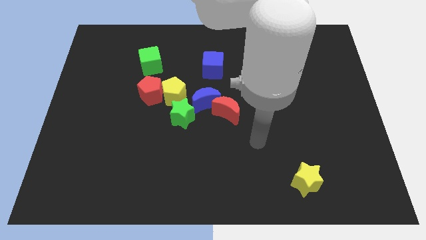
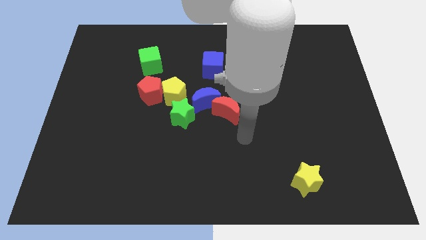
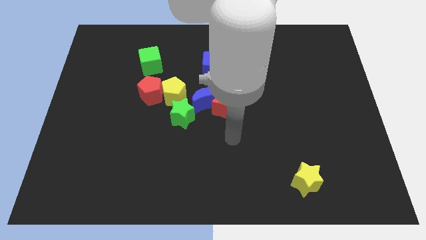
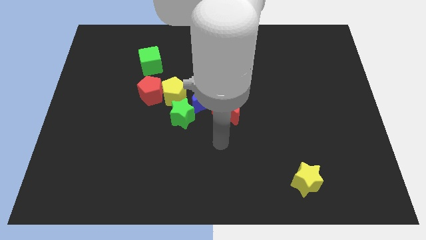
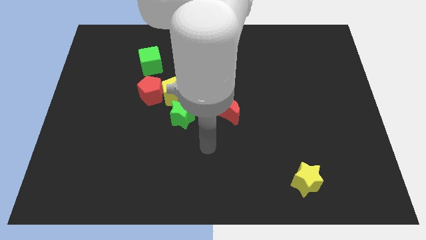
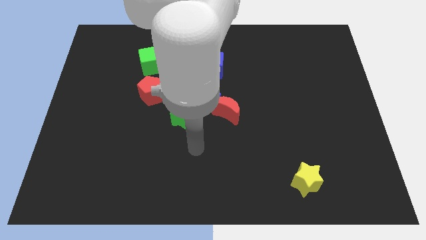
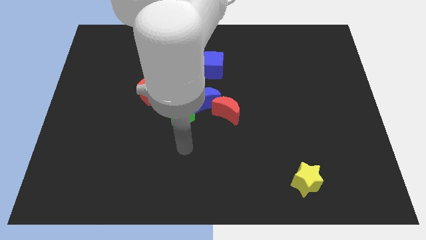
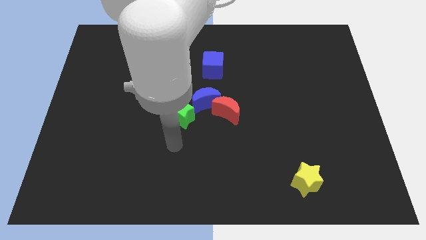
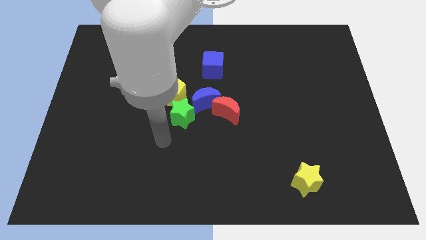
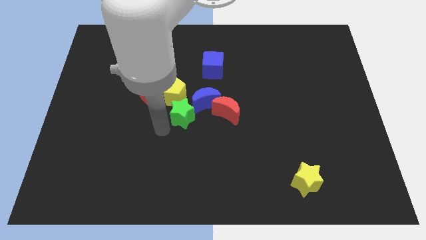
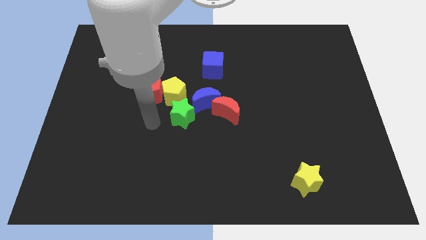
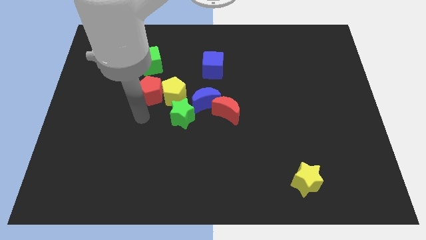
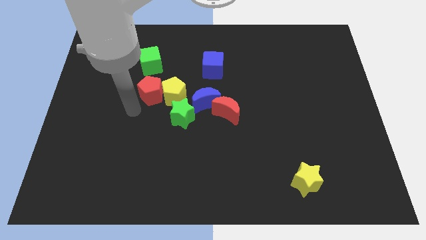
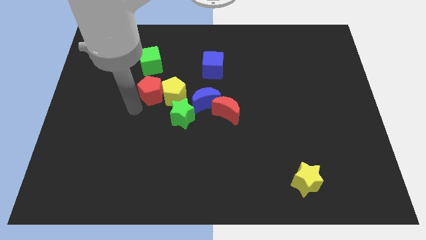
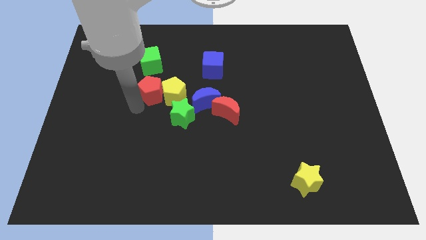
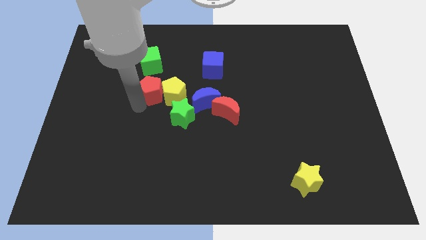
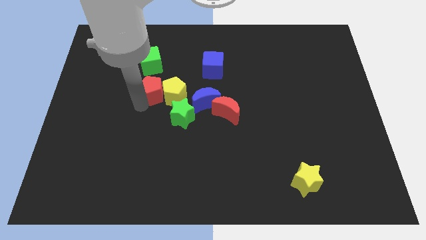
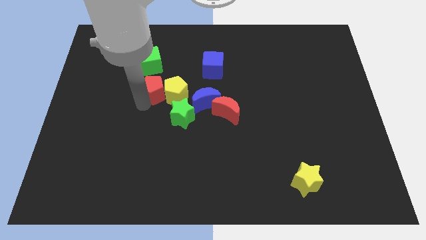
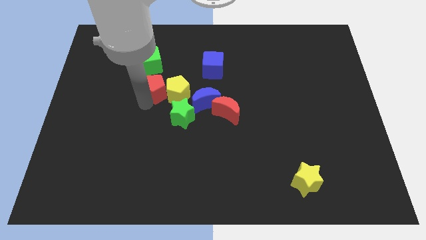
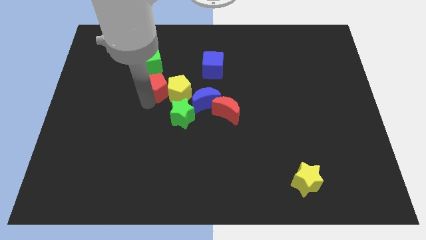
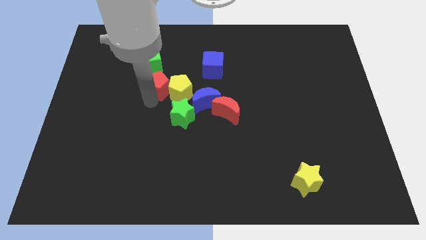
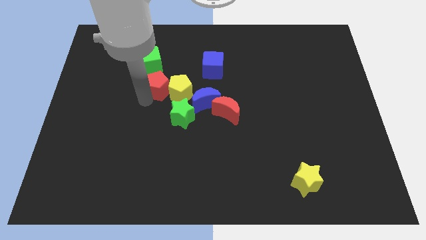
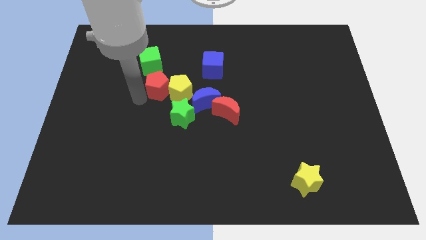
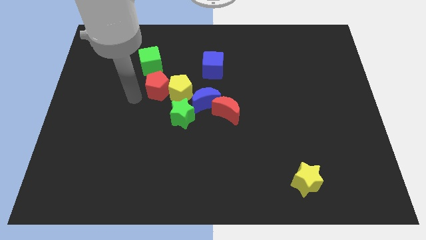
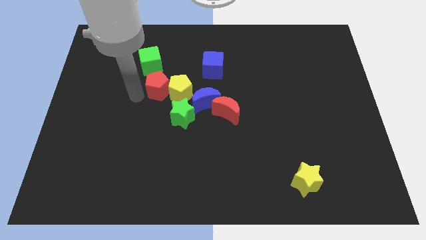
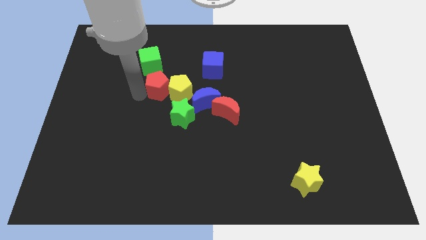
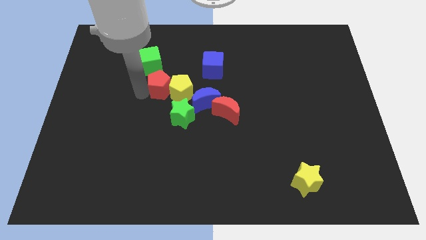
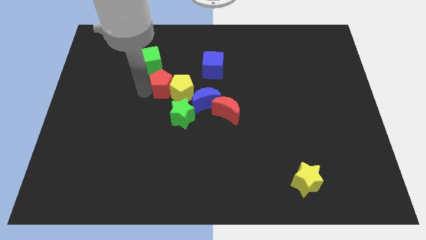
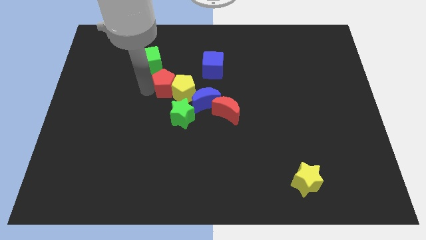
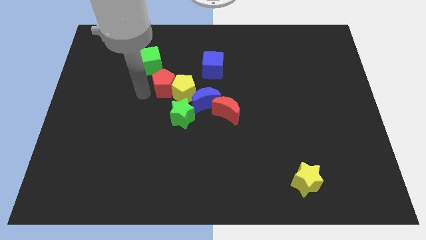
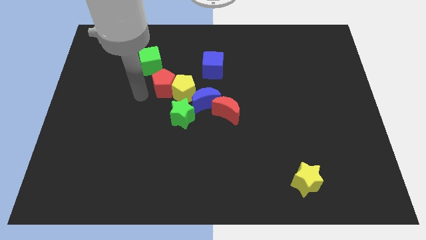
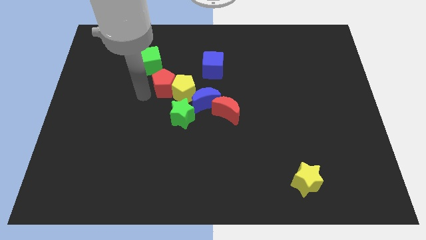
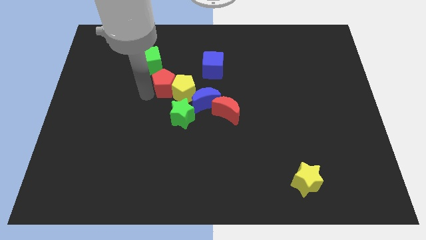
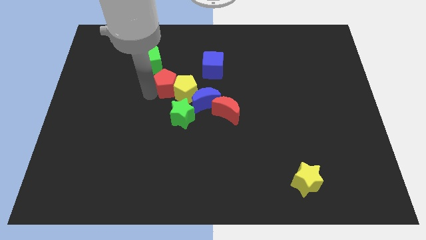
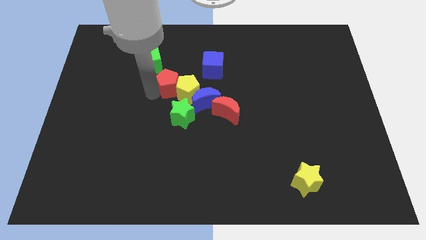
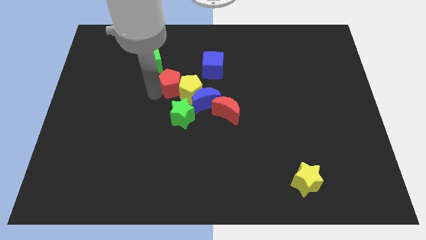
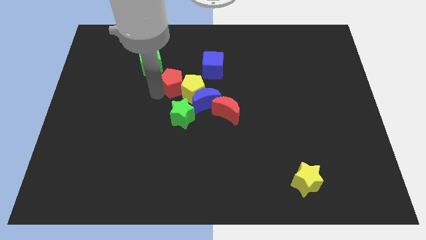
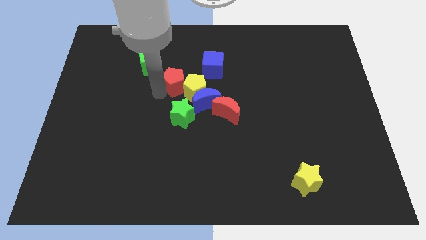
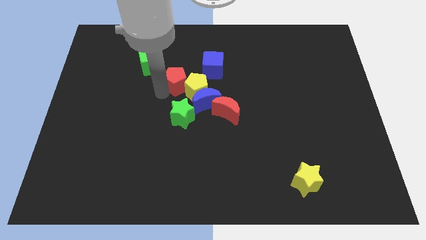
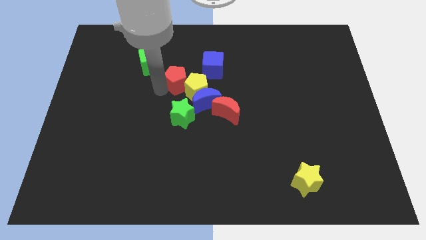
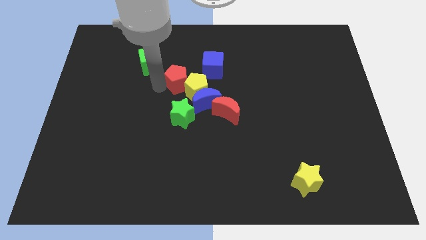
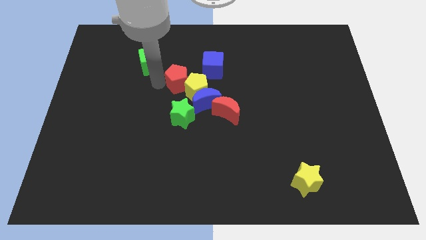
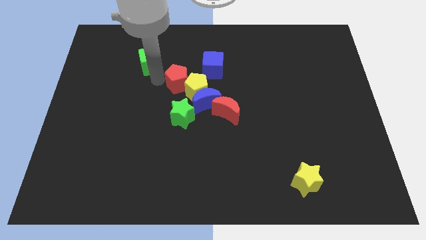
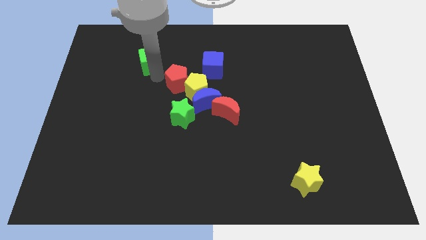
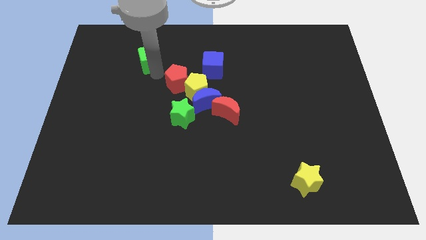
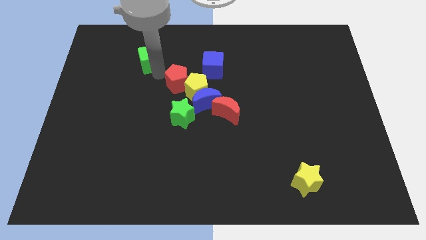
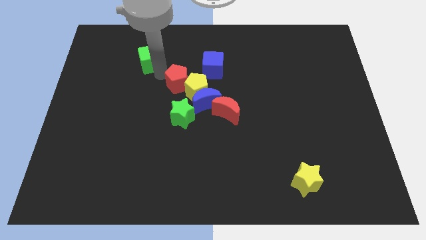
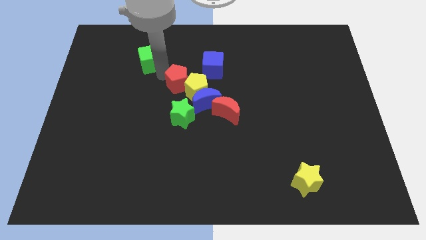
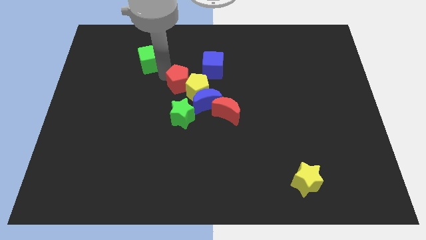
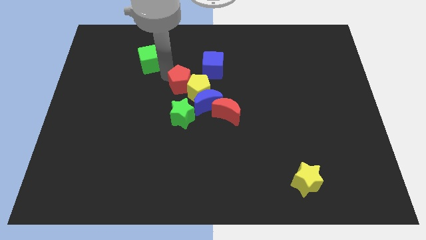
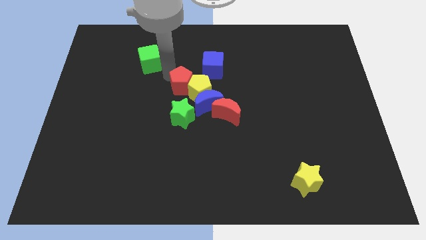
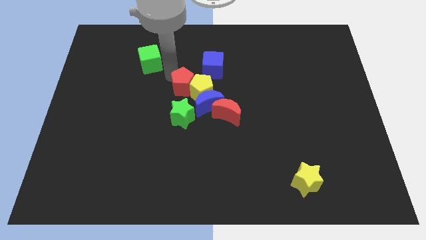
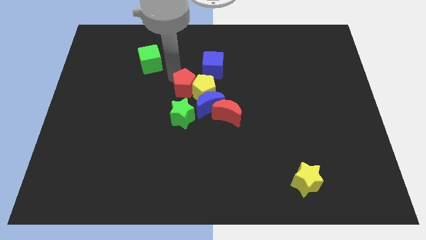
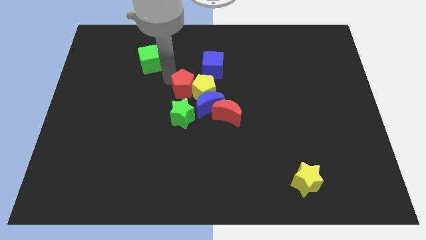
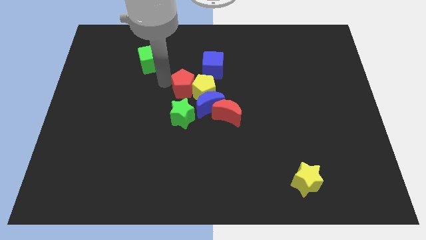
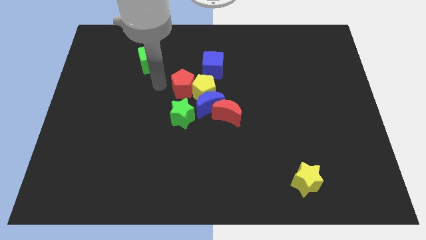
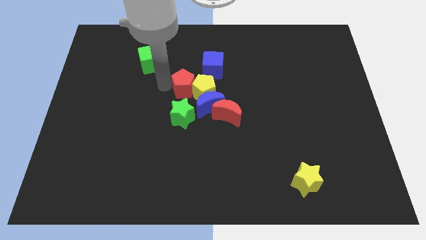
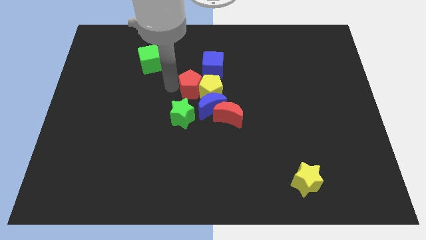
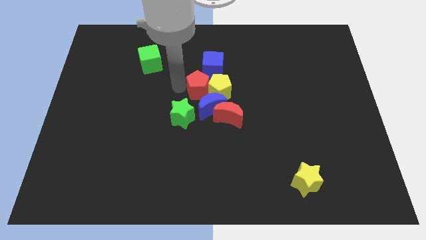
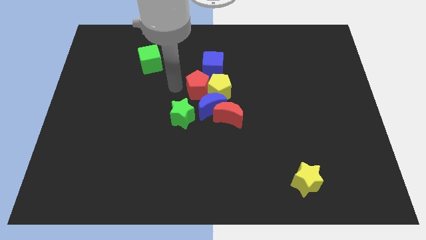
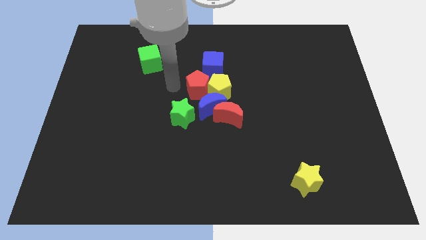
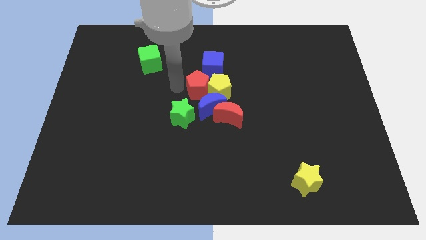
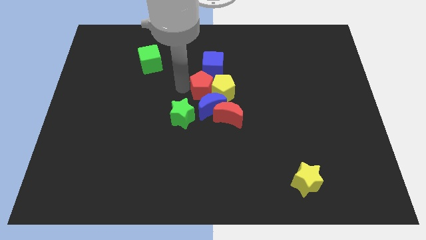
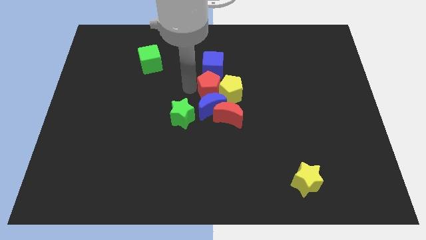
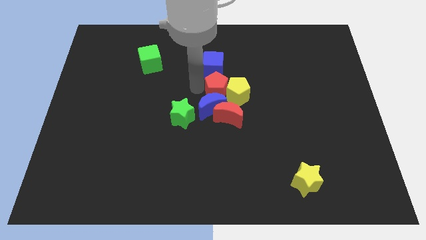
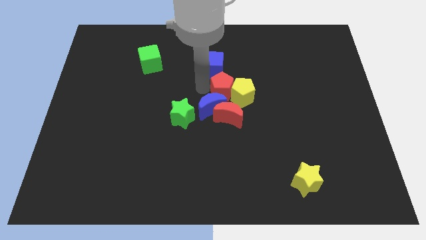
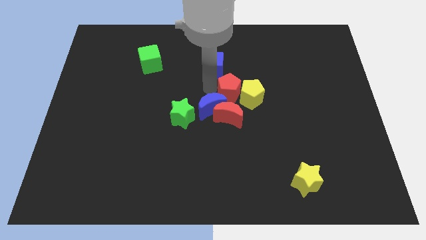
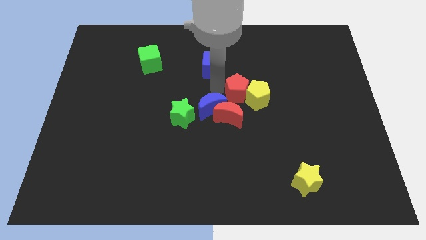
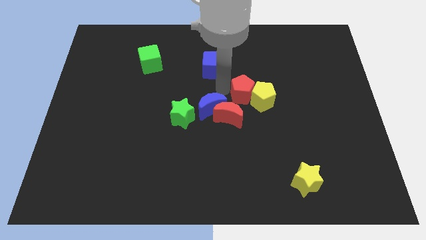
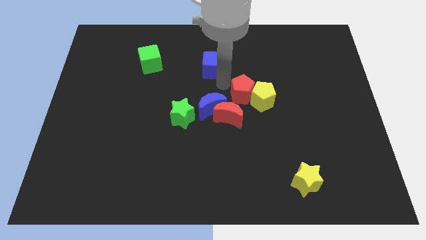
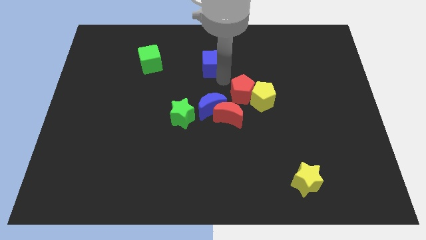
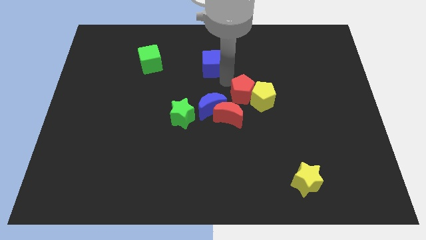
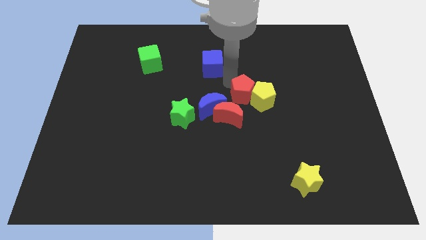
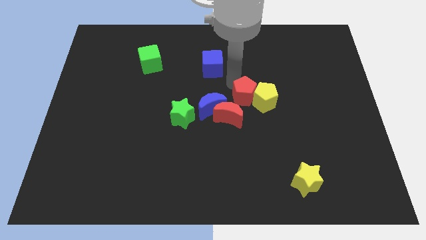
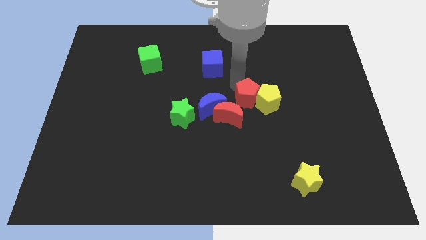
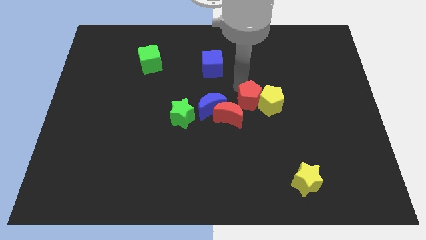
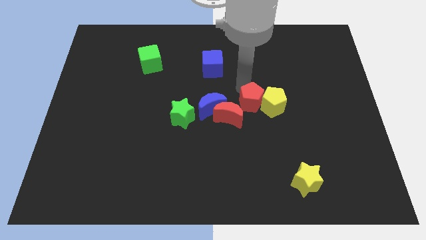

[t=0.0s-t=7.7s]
push the red pentagon just right of the red moon
